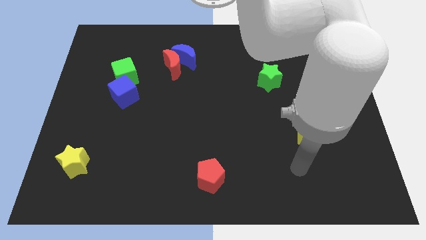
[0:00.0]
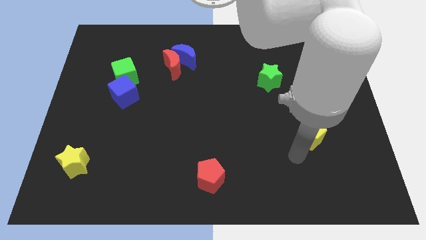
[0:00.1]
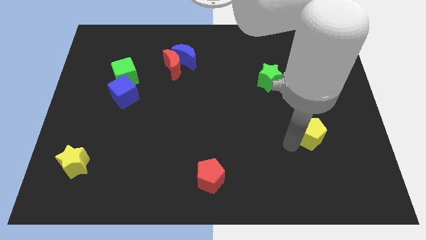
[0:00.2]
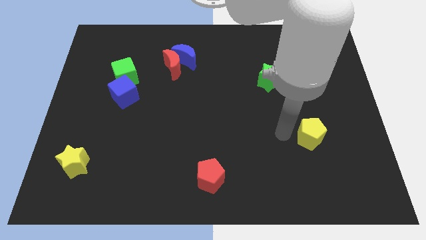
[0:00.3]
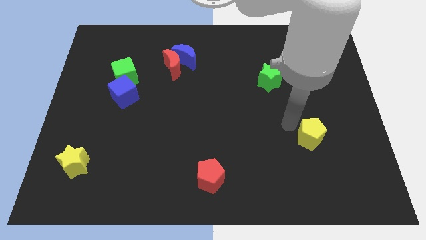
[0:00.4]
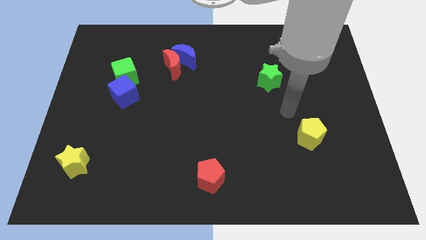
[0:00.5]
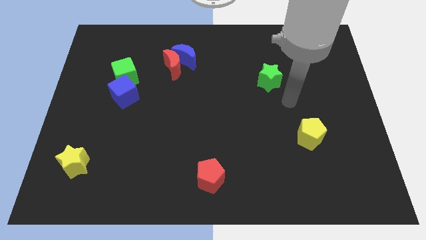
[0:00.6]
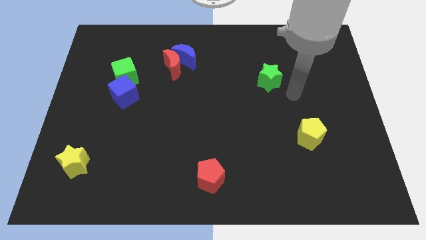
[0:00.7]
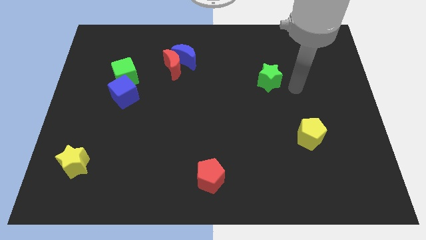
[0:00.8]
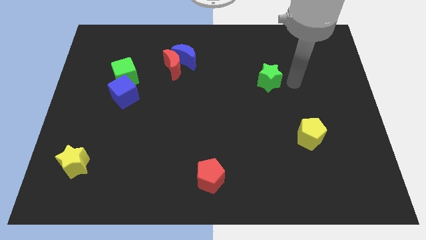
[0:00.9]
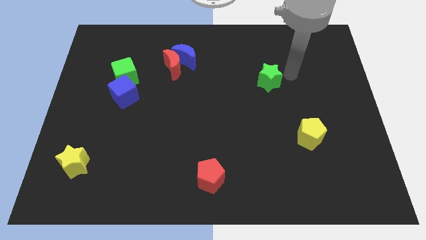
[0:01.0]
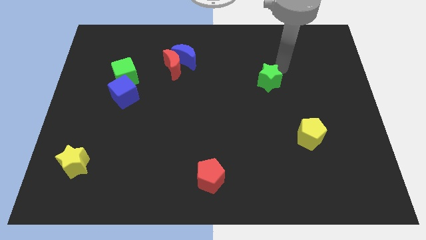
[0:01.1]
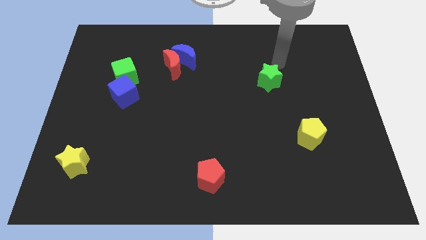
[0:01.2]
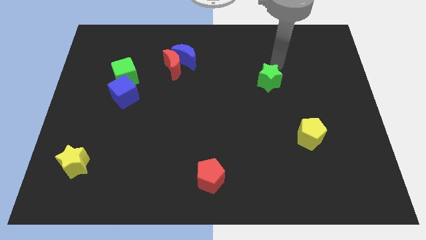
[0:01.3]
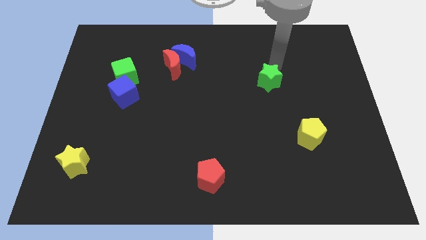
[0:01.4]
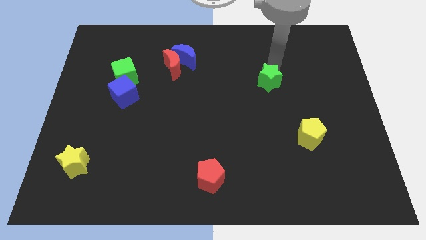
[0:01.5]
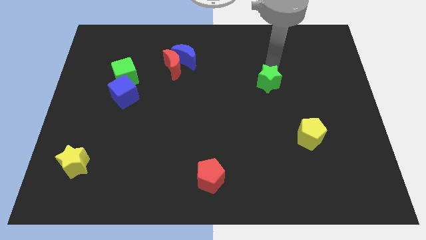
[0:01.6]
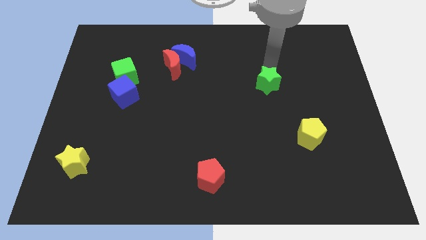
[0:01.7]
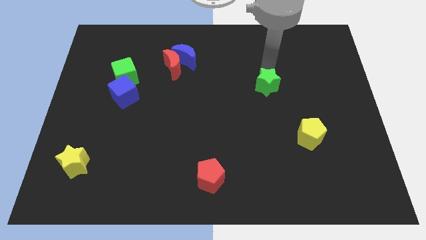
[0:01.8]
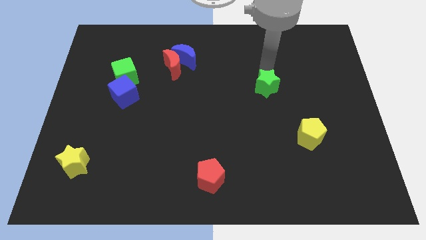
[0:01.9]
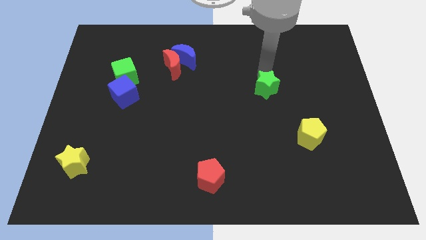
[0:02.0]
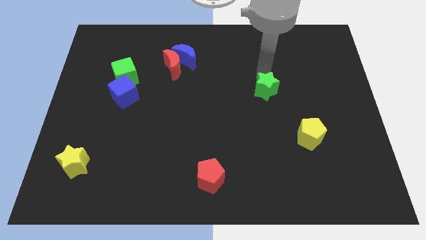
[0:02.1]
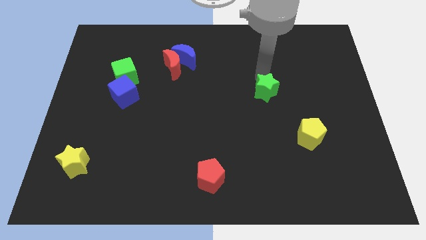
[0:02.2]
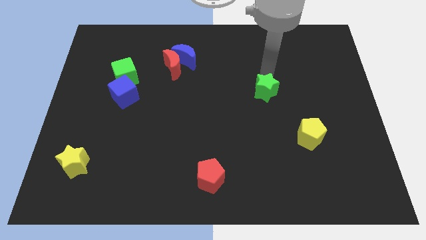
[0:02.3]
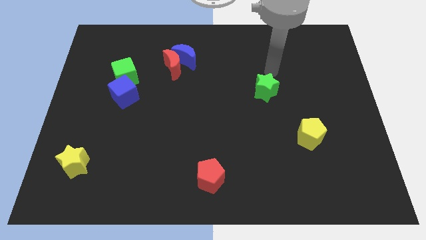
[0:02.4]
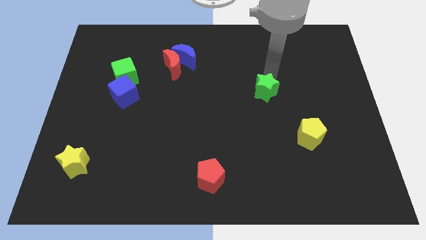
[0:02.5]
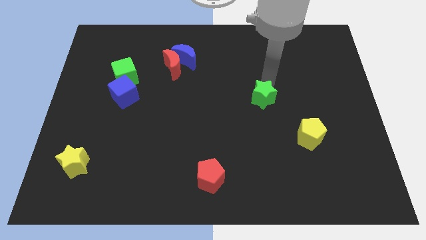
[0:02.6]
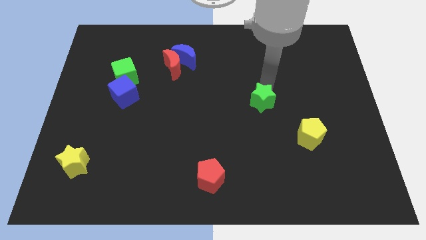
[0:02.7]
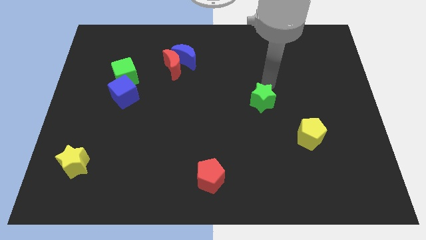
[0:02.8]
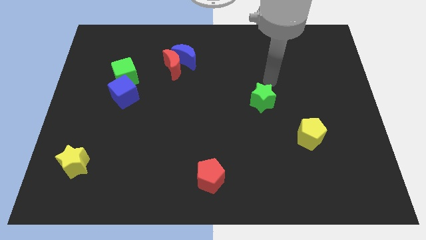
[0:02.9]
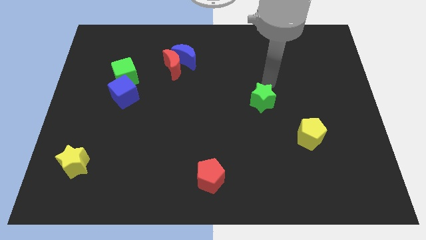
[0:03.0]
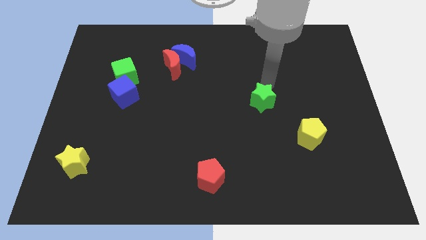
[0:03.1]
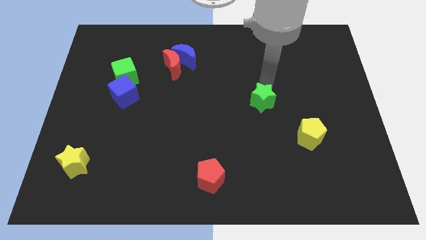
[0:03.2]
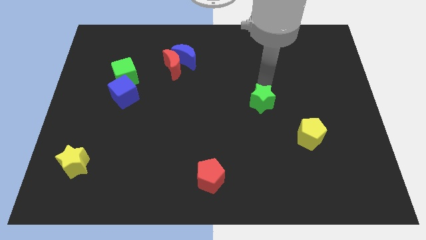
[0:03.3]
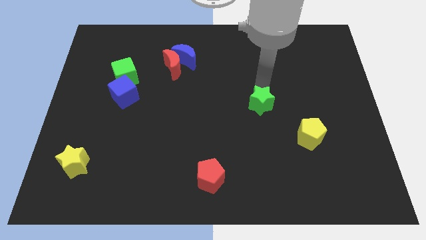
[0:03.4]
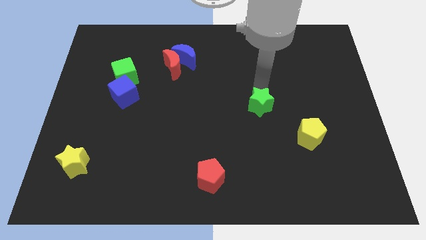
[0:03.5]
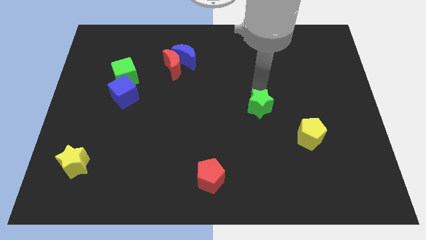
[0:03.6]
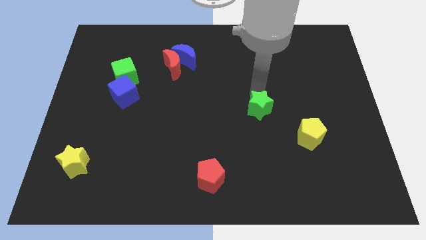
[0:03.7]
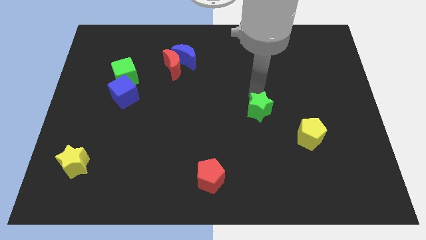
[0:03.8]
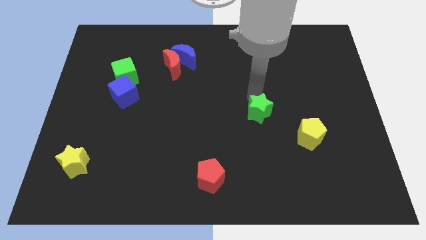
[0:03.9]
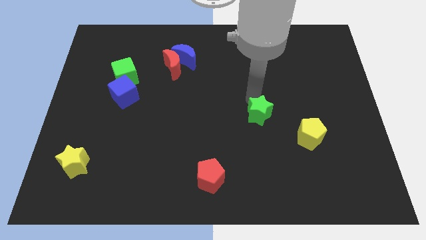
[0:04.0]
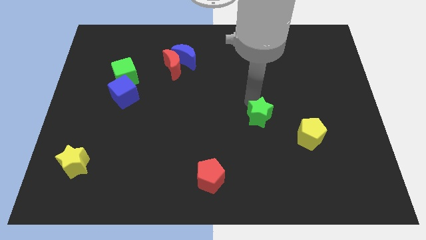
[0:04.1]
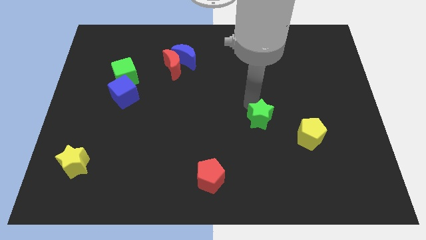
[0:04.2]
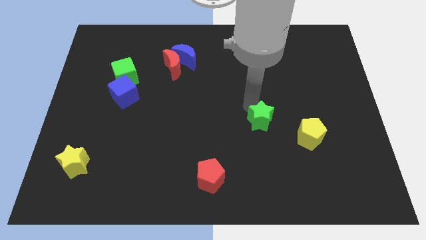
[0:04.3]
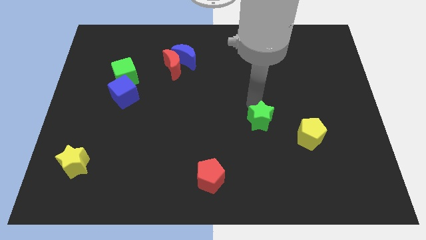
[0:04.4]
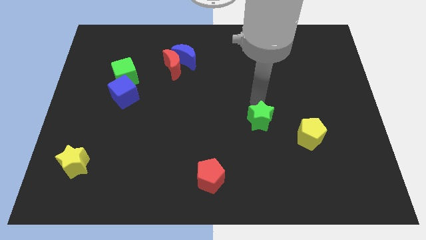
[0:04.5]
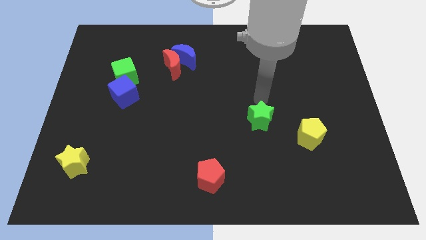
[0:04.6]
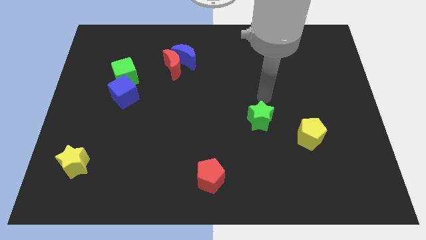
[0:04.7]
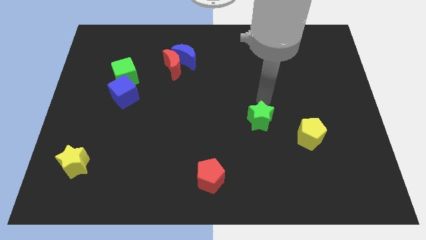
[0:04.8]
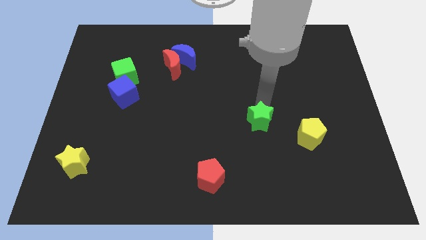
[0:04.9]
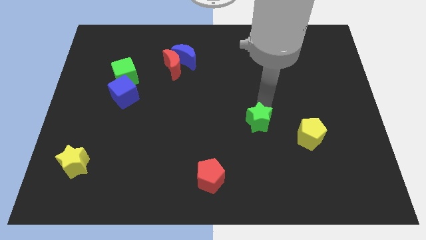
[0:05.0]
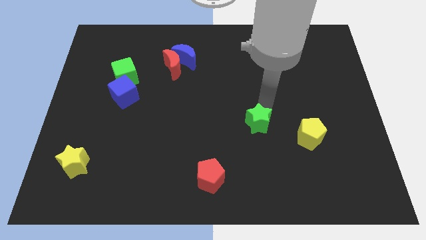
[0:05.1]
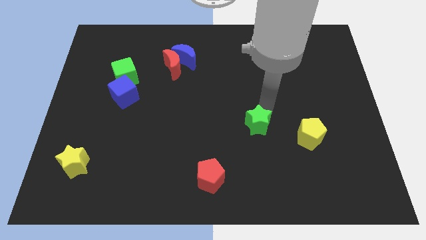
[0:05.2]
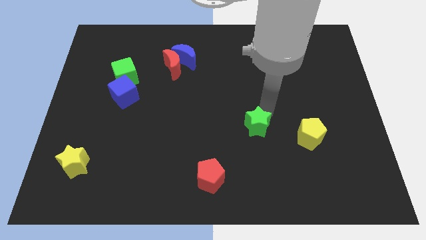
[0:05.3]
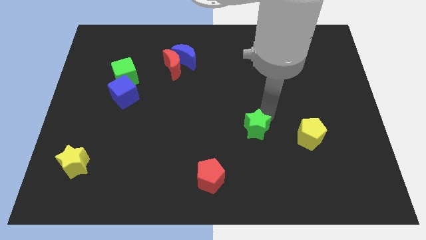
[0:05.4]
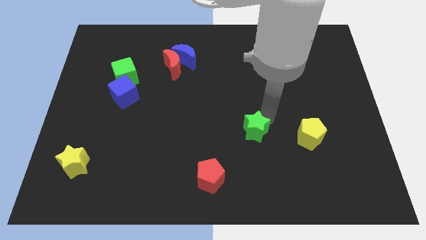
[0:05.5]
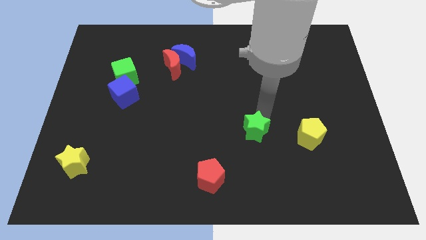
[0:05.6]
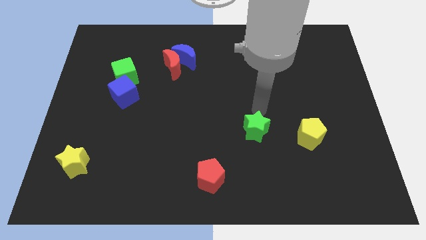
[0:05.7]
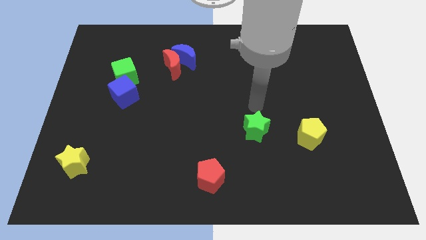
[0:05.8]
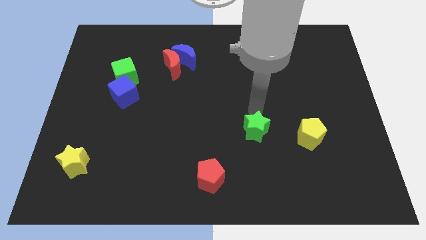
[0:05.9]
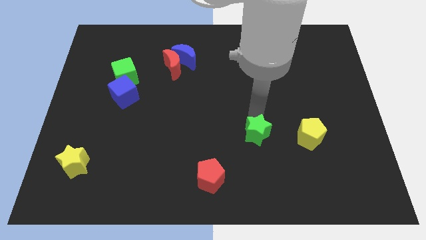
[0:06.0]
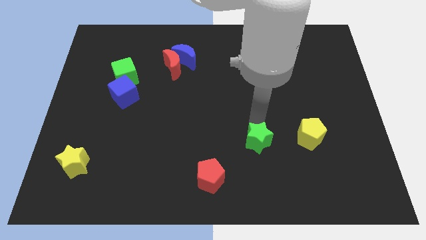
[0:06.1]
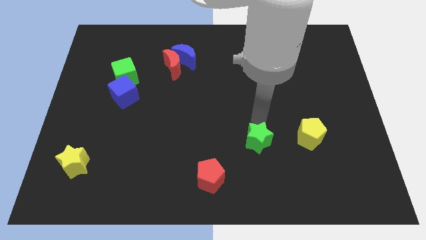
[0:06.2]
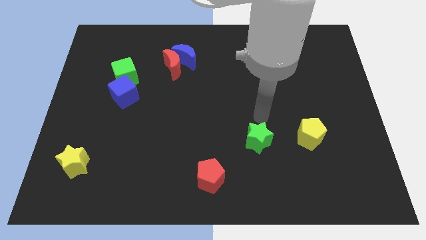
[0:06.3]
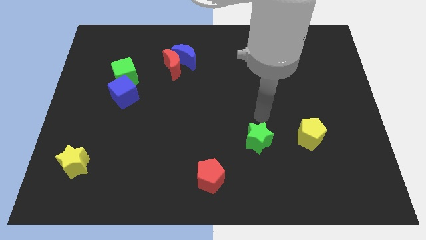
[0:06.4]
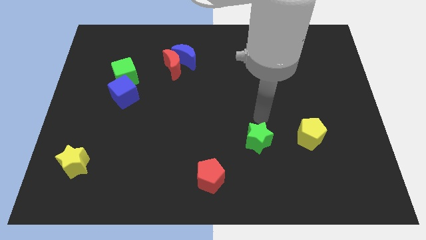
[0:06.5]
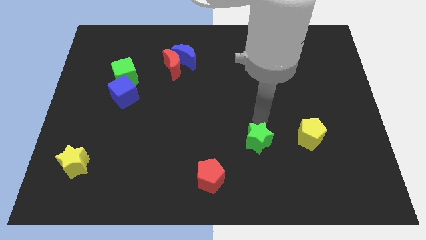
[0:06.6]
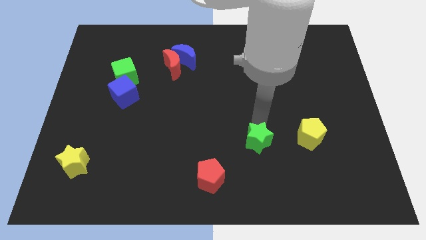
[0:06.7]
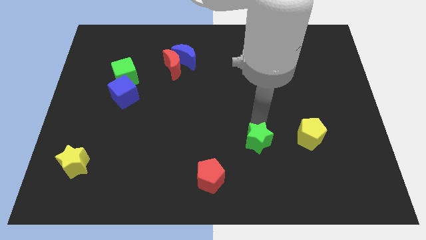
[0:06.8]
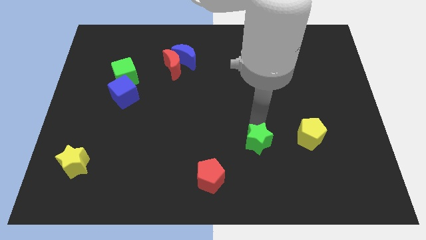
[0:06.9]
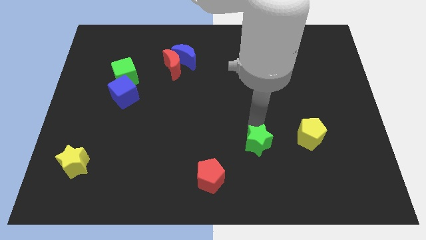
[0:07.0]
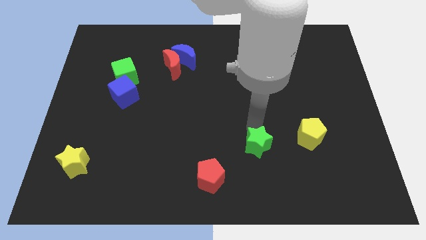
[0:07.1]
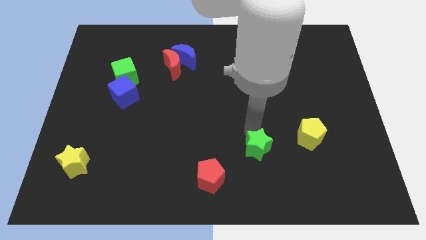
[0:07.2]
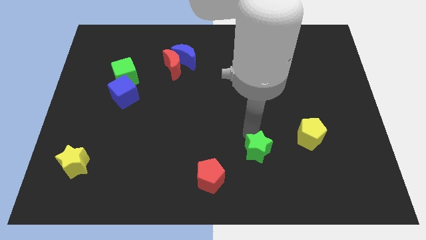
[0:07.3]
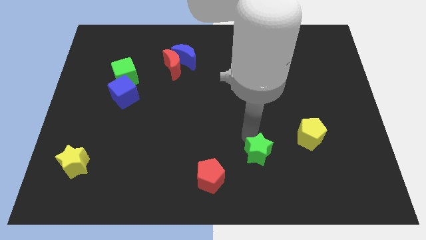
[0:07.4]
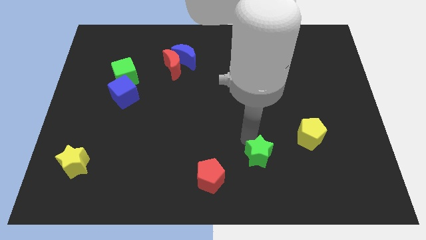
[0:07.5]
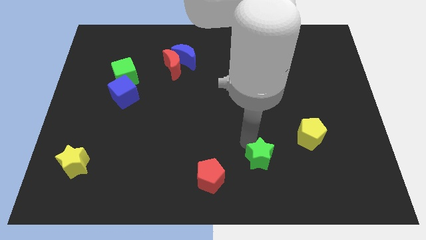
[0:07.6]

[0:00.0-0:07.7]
slide the green star just right of the red pentagon
